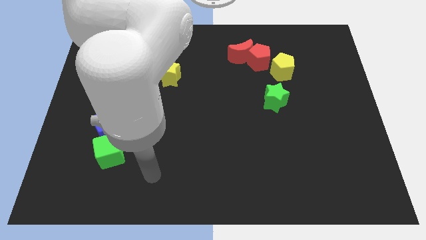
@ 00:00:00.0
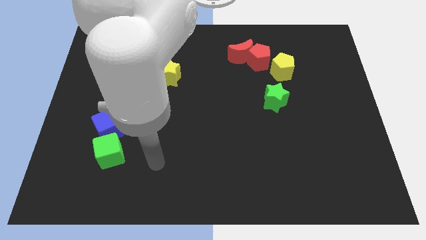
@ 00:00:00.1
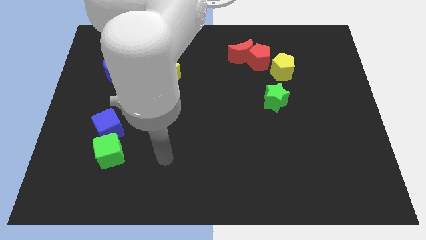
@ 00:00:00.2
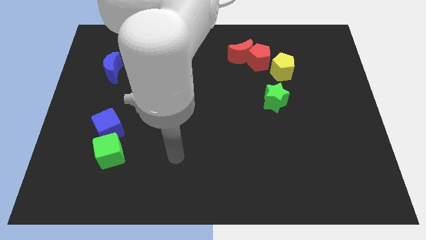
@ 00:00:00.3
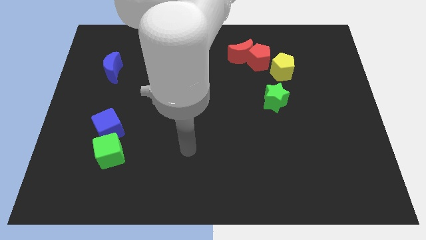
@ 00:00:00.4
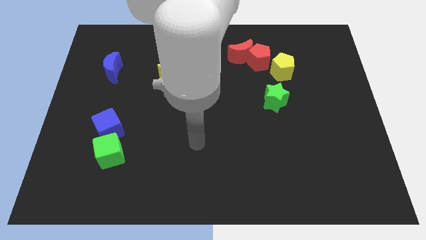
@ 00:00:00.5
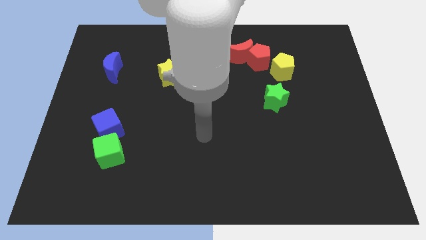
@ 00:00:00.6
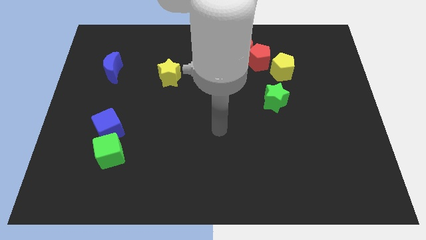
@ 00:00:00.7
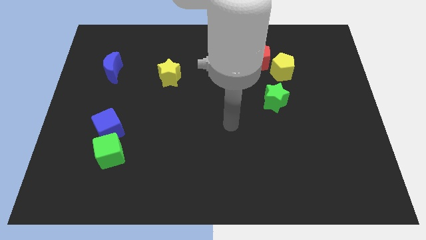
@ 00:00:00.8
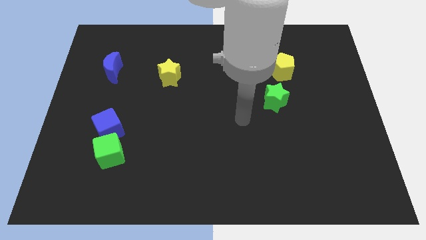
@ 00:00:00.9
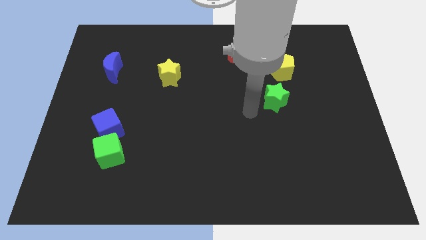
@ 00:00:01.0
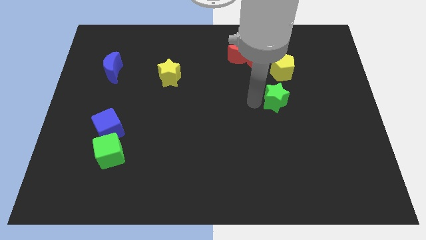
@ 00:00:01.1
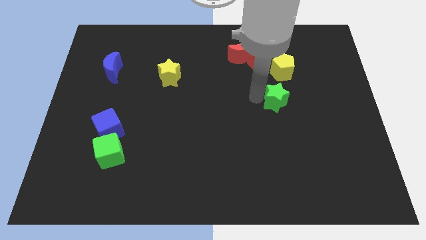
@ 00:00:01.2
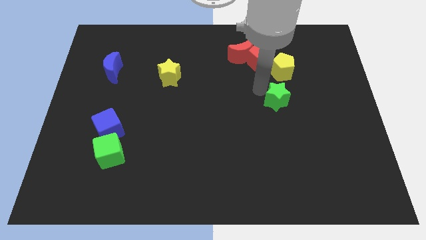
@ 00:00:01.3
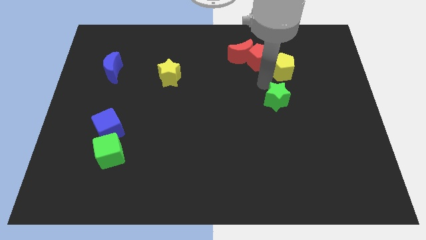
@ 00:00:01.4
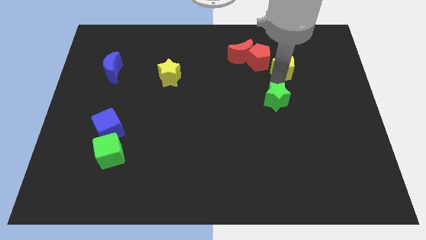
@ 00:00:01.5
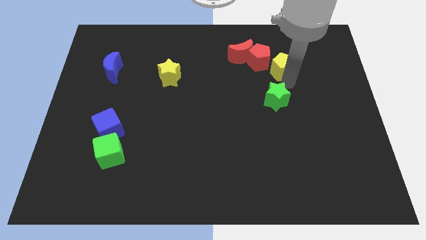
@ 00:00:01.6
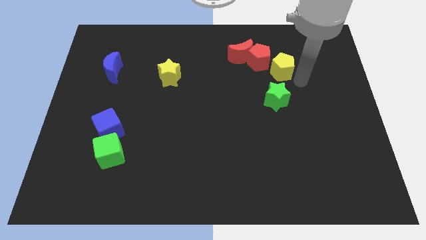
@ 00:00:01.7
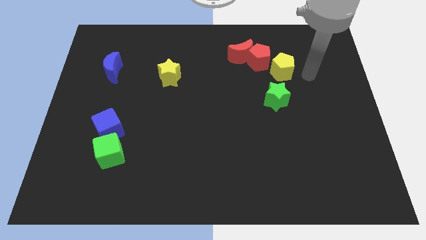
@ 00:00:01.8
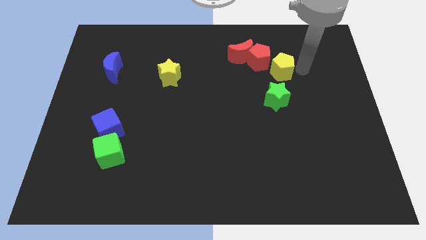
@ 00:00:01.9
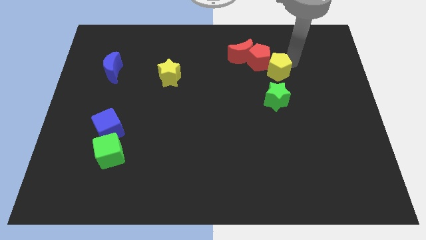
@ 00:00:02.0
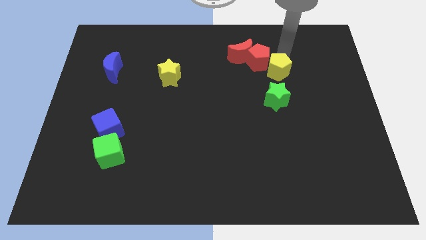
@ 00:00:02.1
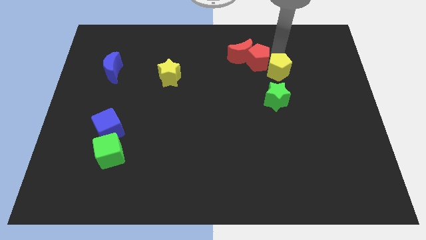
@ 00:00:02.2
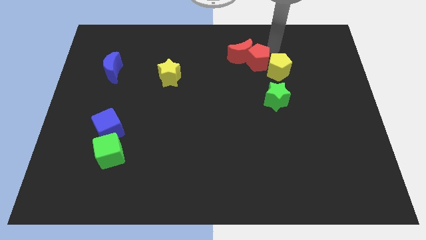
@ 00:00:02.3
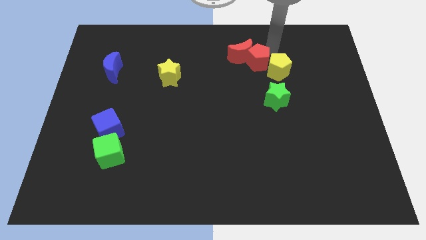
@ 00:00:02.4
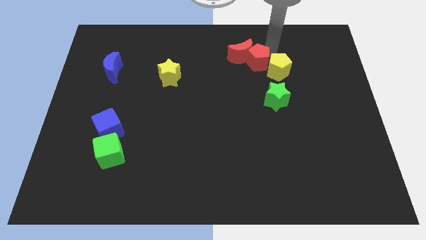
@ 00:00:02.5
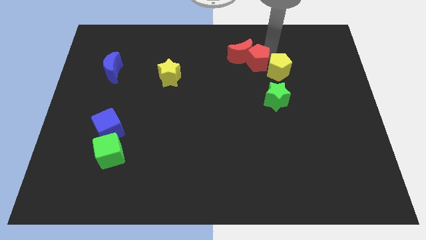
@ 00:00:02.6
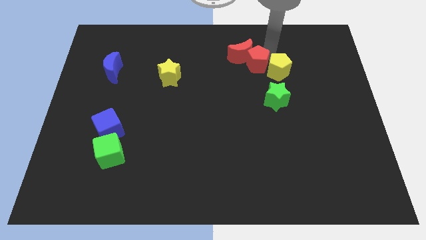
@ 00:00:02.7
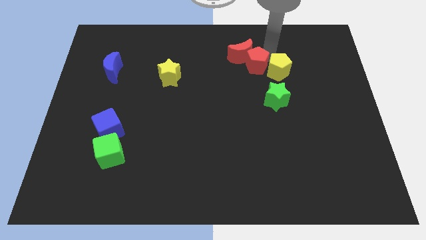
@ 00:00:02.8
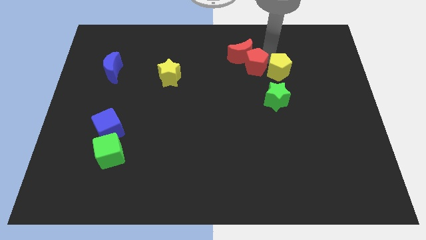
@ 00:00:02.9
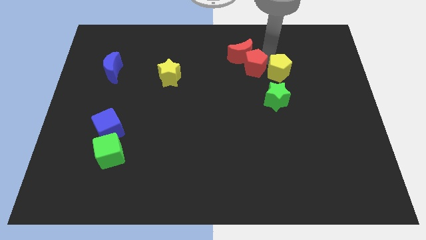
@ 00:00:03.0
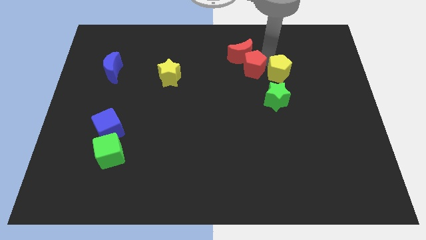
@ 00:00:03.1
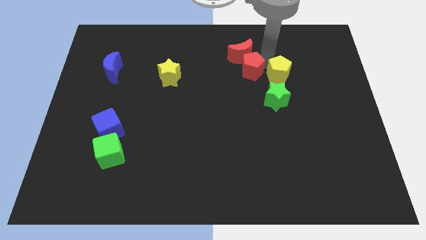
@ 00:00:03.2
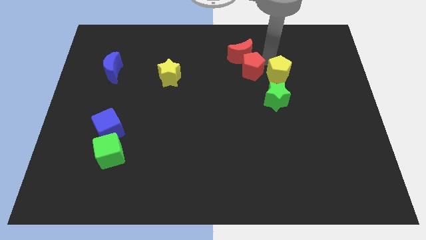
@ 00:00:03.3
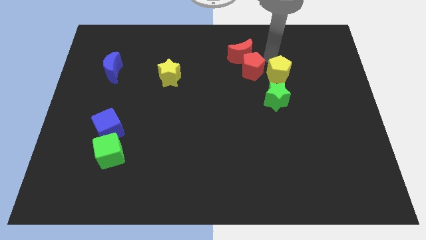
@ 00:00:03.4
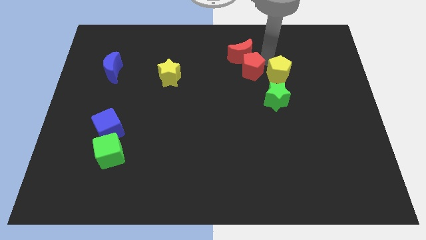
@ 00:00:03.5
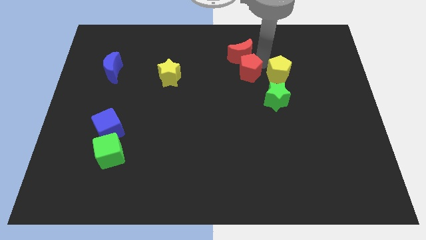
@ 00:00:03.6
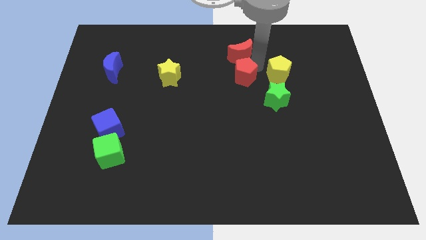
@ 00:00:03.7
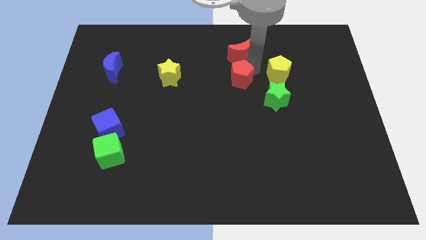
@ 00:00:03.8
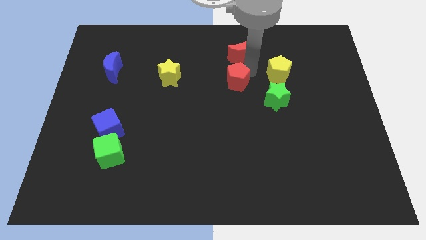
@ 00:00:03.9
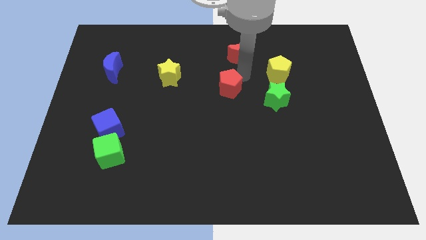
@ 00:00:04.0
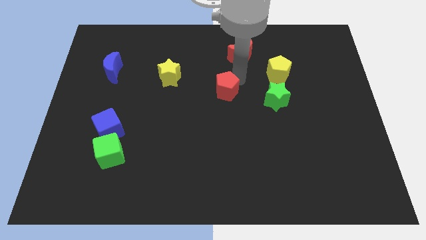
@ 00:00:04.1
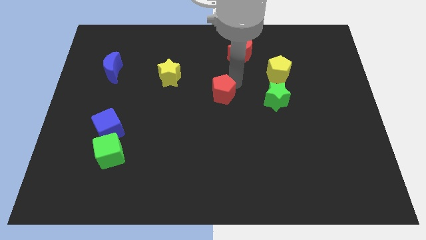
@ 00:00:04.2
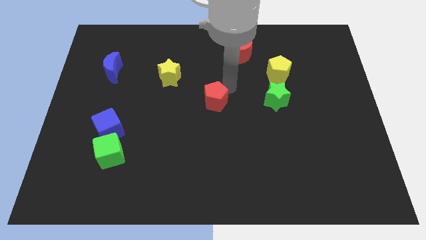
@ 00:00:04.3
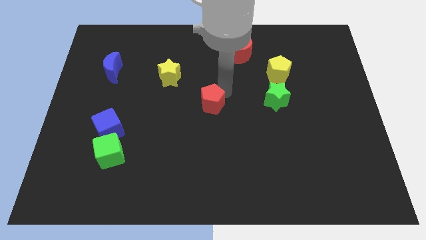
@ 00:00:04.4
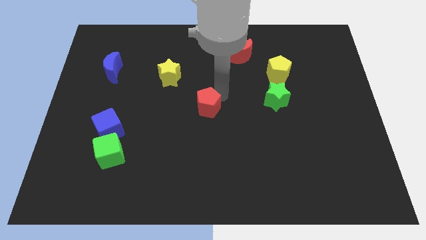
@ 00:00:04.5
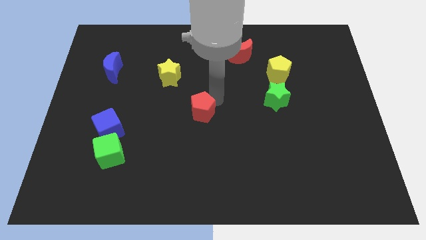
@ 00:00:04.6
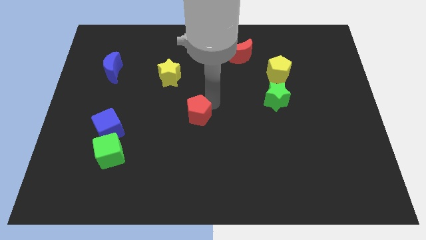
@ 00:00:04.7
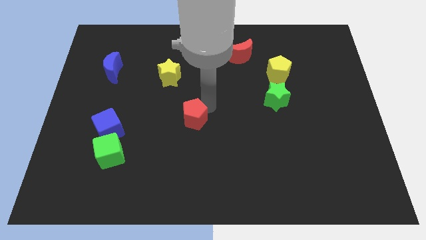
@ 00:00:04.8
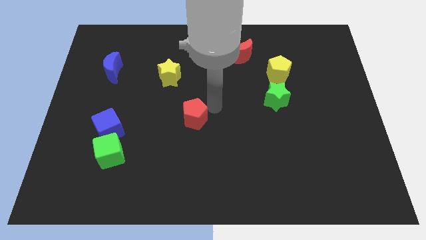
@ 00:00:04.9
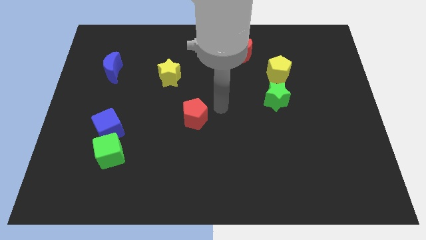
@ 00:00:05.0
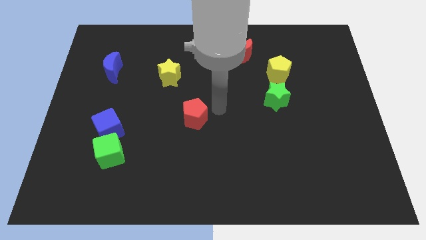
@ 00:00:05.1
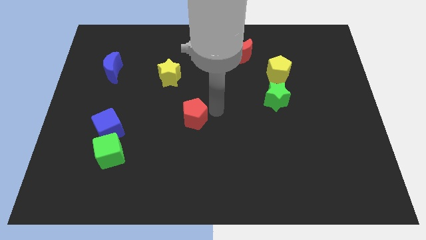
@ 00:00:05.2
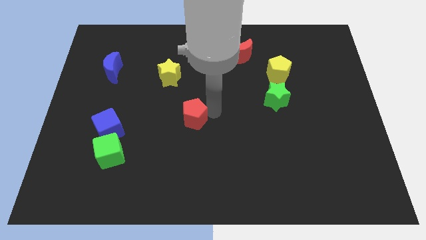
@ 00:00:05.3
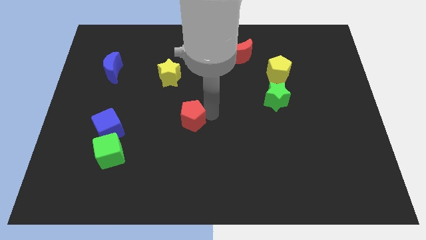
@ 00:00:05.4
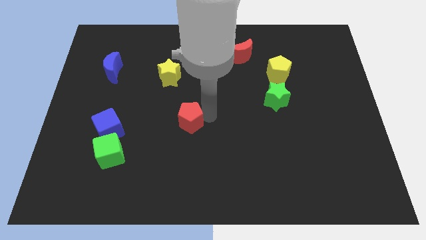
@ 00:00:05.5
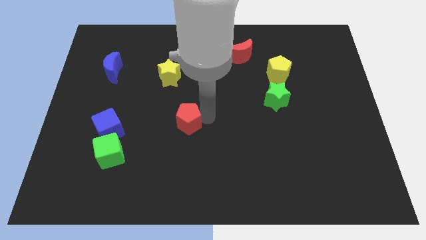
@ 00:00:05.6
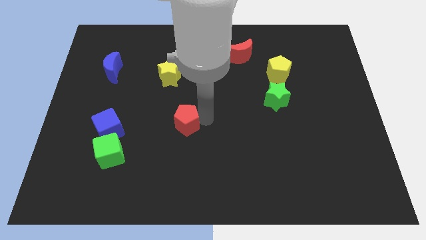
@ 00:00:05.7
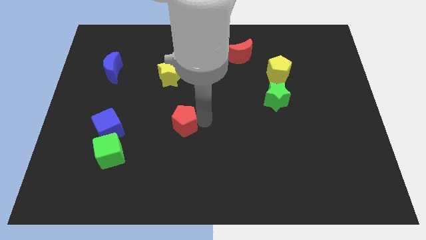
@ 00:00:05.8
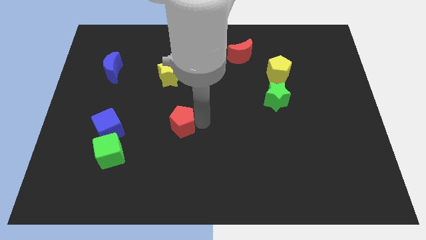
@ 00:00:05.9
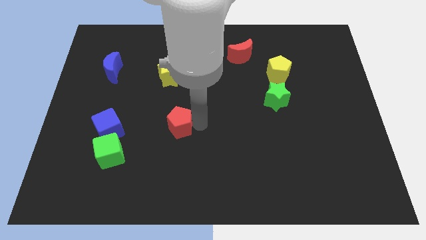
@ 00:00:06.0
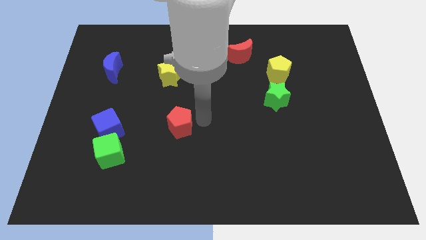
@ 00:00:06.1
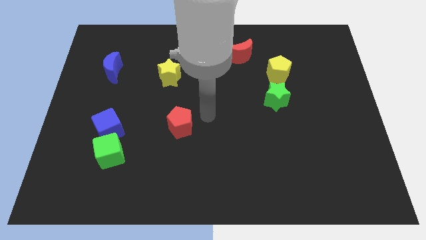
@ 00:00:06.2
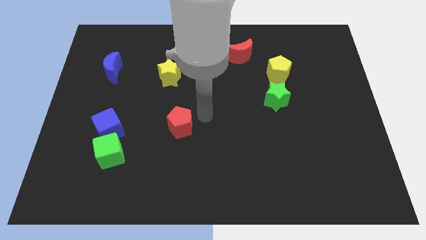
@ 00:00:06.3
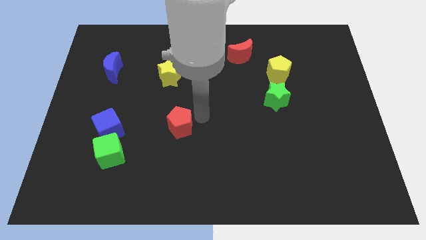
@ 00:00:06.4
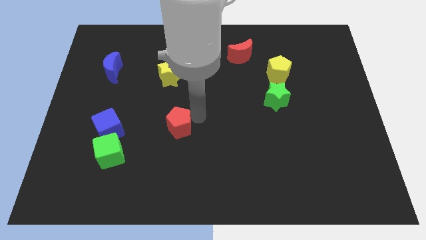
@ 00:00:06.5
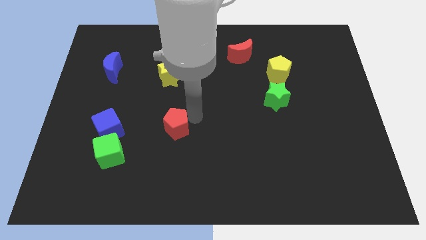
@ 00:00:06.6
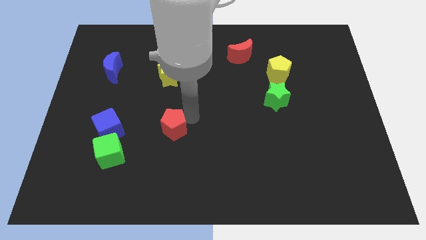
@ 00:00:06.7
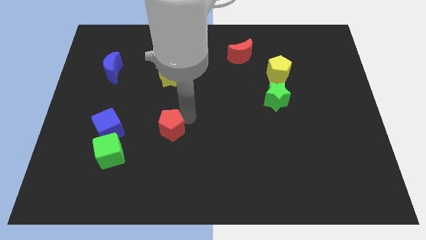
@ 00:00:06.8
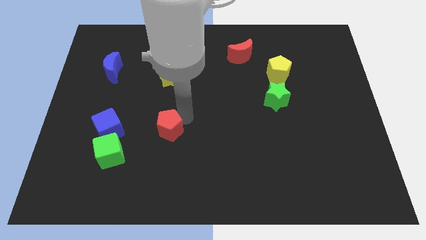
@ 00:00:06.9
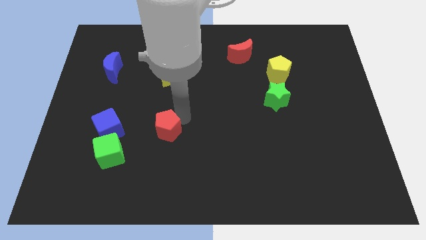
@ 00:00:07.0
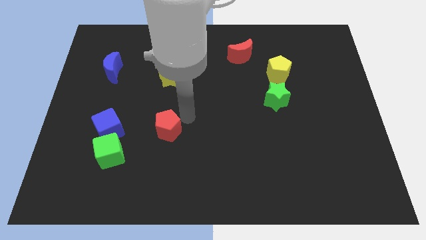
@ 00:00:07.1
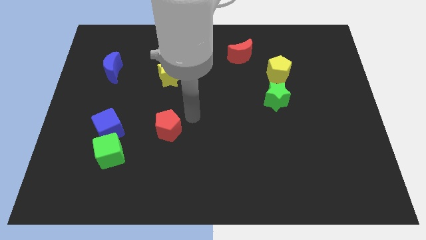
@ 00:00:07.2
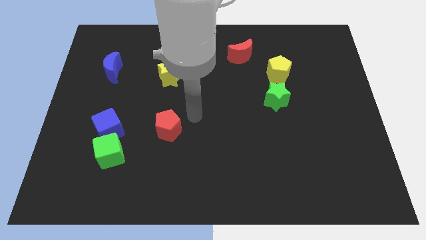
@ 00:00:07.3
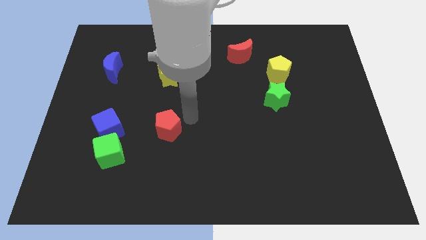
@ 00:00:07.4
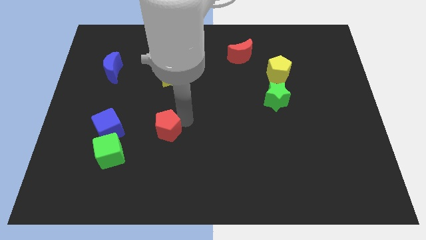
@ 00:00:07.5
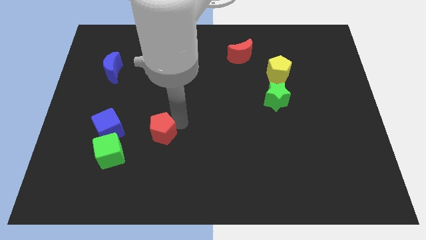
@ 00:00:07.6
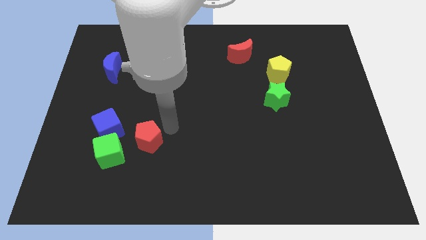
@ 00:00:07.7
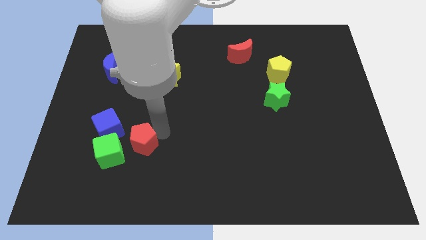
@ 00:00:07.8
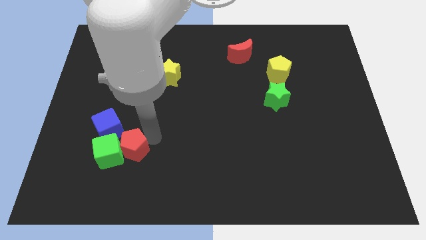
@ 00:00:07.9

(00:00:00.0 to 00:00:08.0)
push the red pentagon next to the green cube
